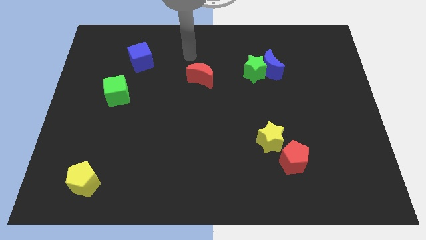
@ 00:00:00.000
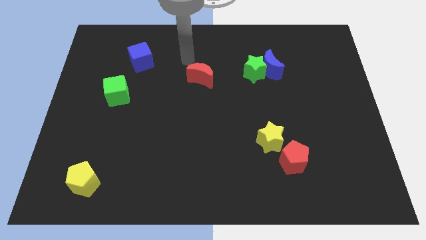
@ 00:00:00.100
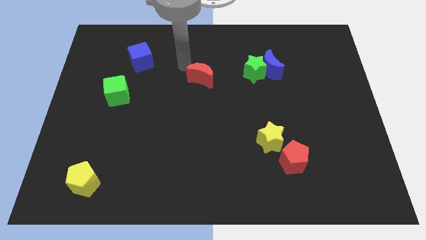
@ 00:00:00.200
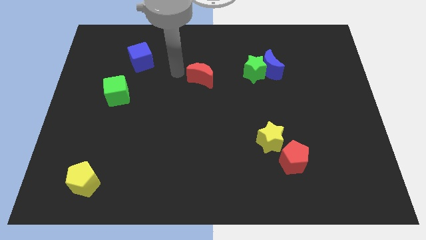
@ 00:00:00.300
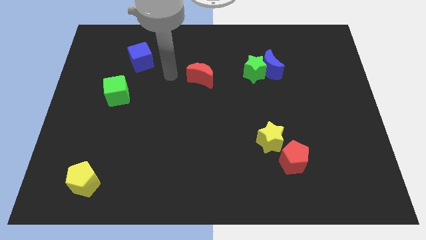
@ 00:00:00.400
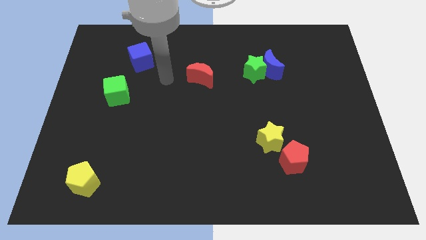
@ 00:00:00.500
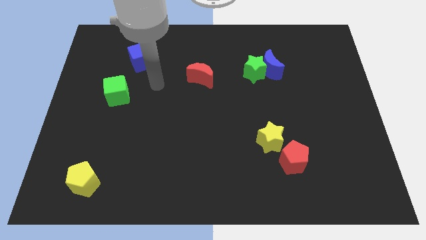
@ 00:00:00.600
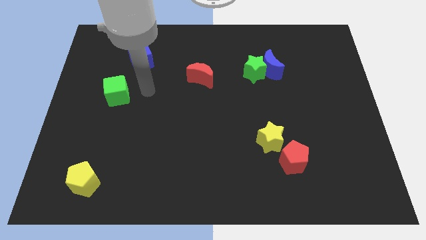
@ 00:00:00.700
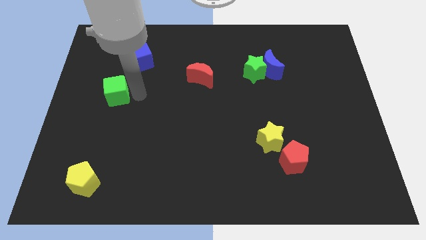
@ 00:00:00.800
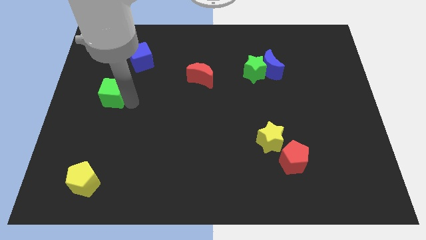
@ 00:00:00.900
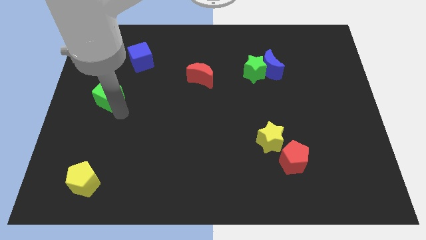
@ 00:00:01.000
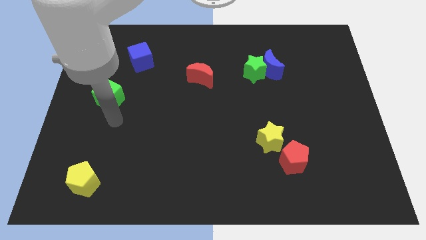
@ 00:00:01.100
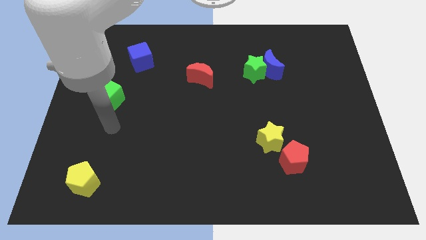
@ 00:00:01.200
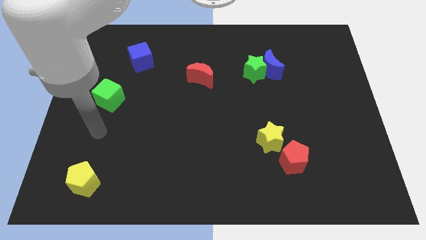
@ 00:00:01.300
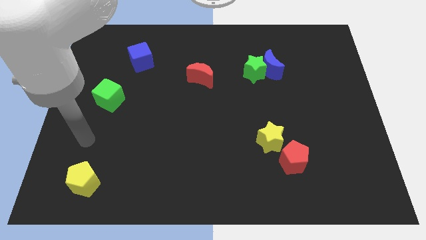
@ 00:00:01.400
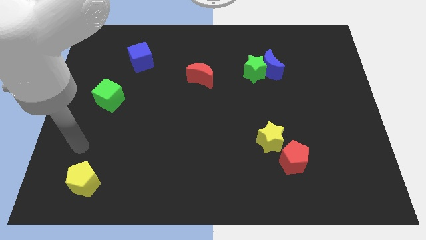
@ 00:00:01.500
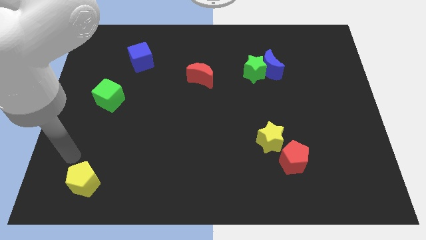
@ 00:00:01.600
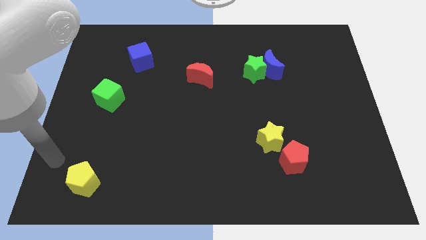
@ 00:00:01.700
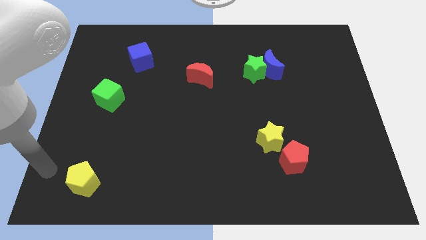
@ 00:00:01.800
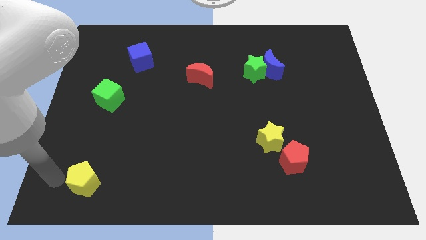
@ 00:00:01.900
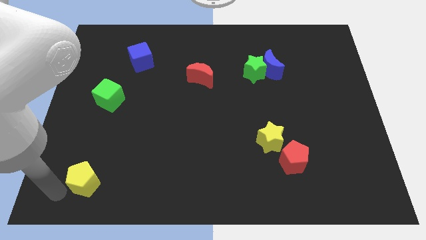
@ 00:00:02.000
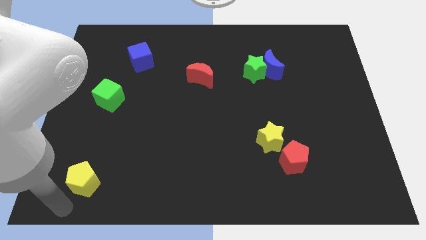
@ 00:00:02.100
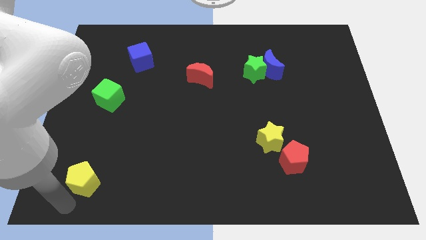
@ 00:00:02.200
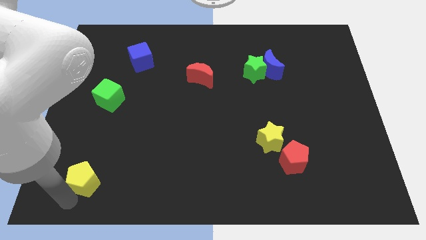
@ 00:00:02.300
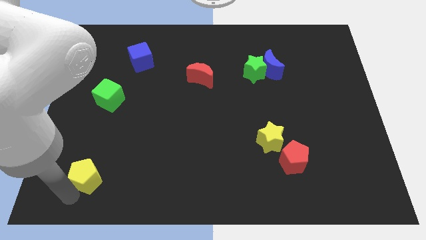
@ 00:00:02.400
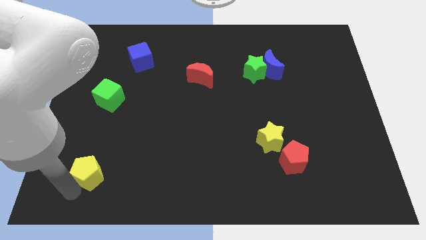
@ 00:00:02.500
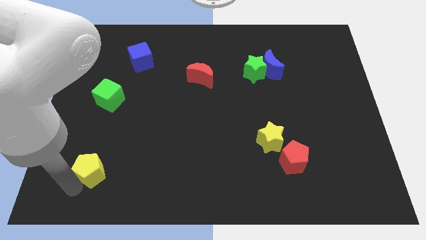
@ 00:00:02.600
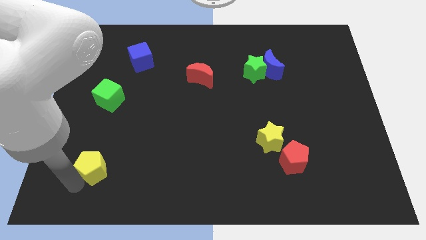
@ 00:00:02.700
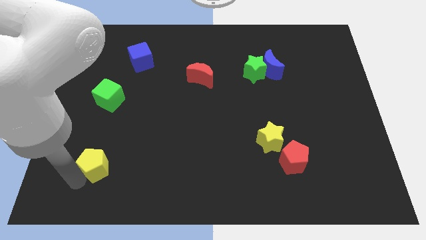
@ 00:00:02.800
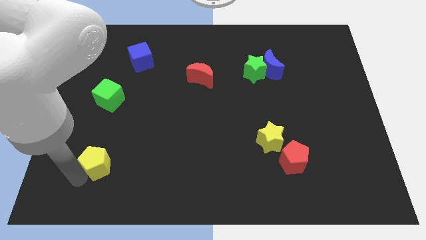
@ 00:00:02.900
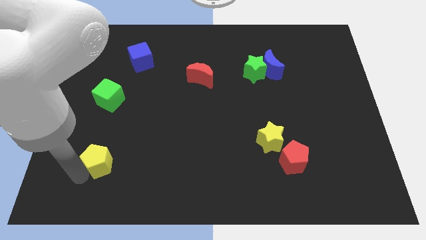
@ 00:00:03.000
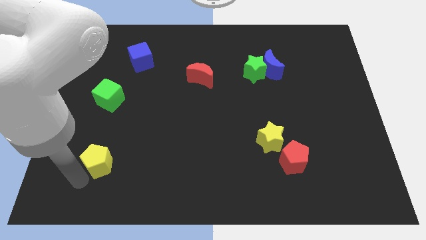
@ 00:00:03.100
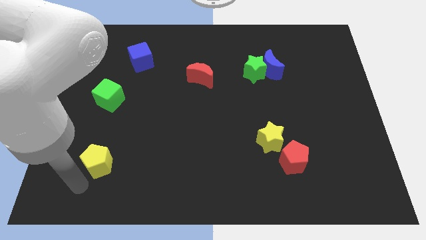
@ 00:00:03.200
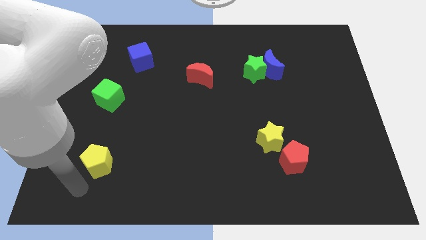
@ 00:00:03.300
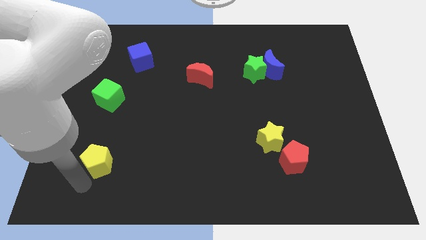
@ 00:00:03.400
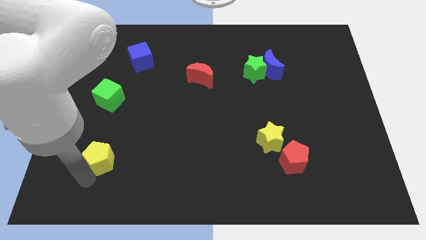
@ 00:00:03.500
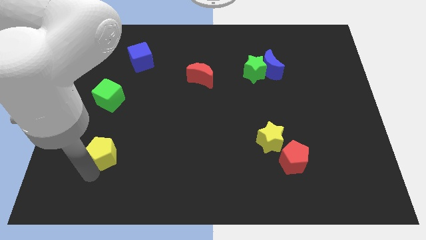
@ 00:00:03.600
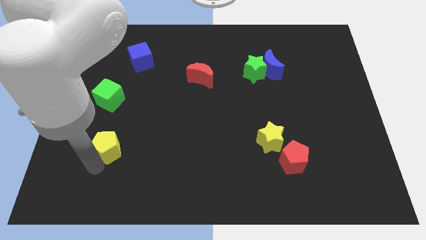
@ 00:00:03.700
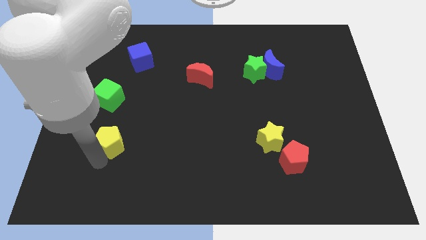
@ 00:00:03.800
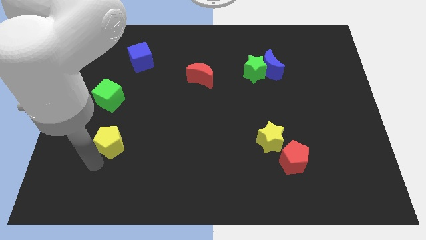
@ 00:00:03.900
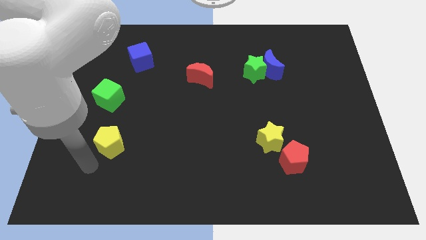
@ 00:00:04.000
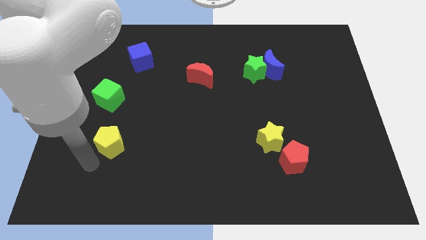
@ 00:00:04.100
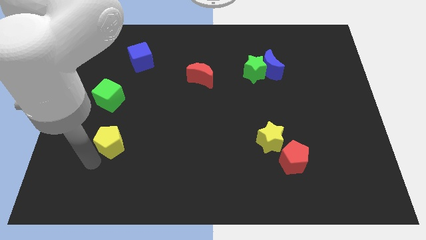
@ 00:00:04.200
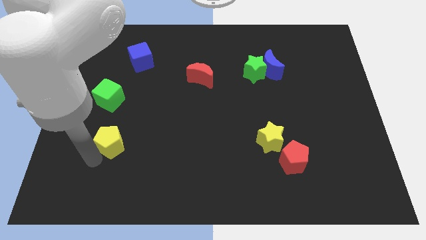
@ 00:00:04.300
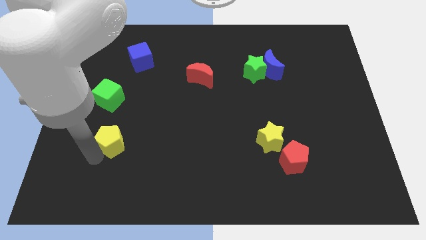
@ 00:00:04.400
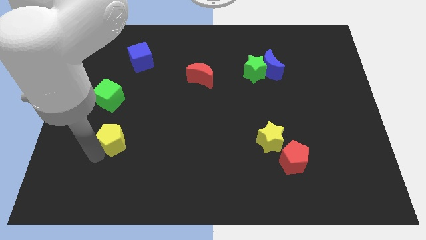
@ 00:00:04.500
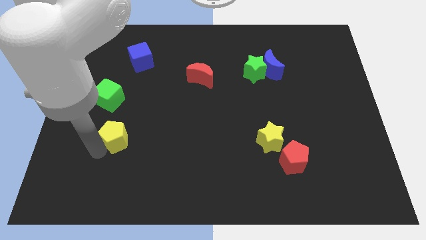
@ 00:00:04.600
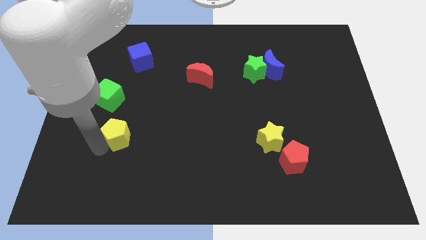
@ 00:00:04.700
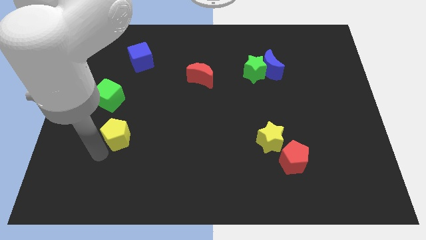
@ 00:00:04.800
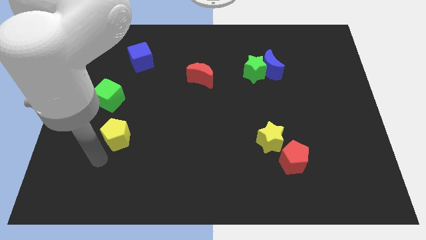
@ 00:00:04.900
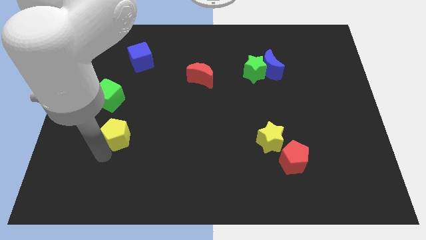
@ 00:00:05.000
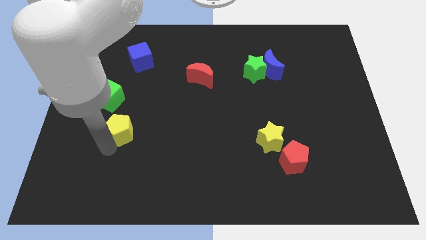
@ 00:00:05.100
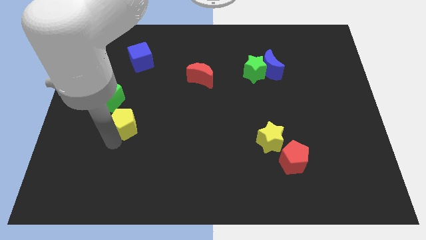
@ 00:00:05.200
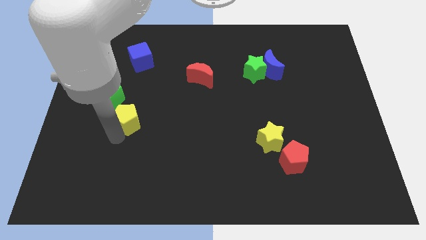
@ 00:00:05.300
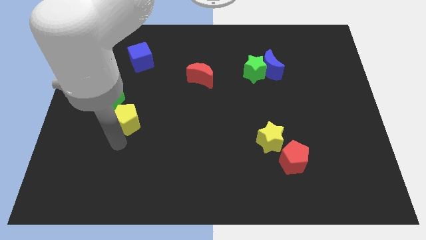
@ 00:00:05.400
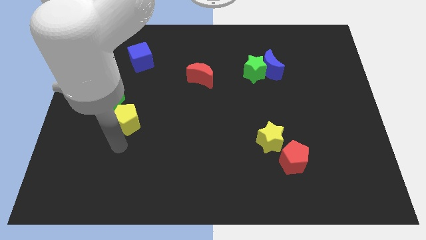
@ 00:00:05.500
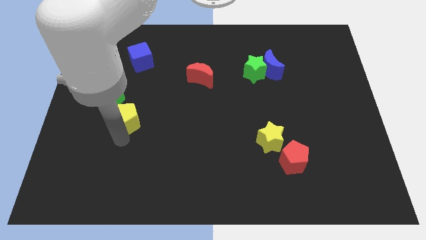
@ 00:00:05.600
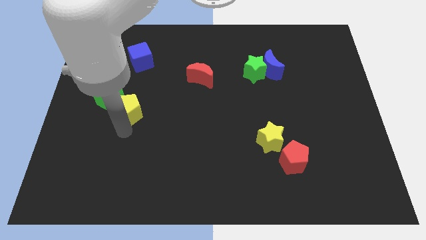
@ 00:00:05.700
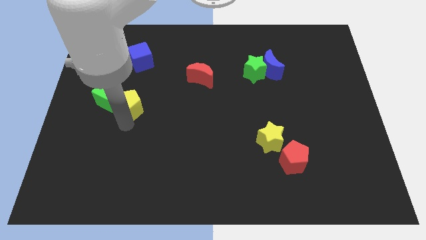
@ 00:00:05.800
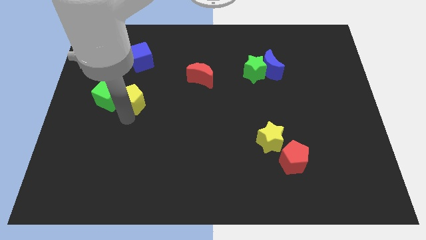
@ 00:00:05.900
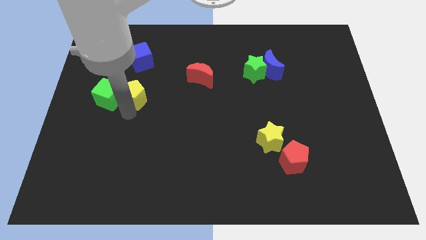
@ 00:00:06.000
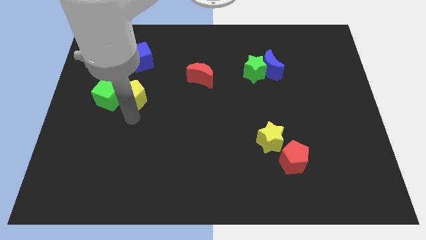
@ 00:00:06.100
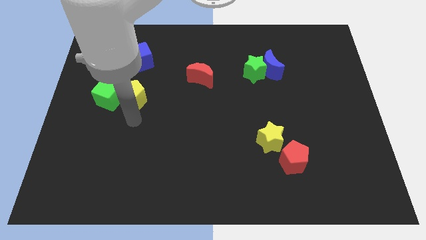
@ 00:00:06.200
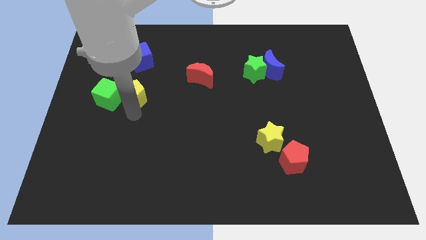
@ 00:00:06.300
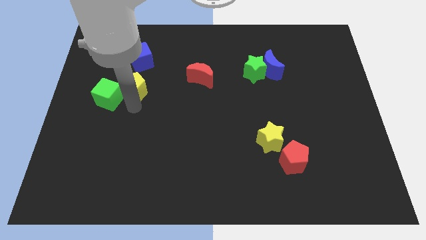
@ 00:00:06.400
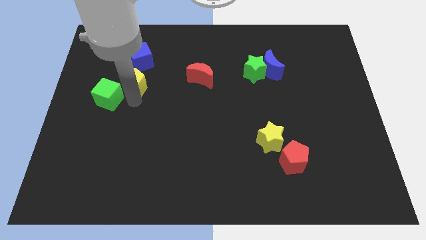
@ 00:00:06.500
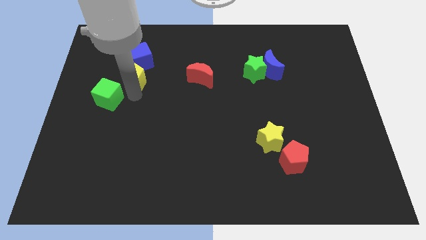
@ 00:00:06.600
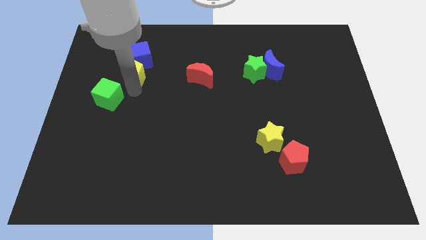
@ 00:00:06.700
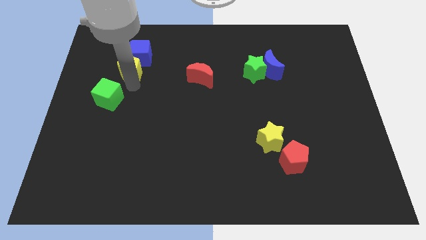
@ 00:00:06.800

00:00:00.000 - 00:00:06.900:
put the yellow pentagon towards the blue cube

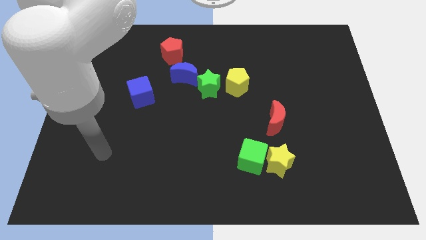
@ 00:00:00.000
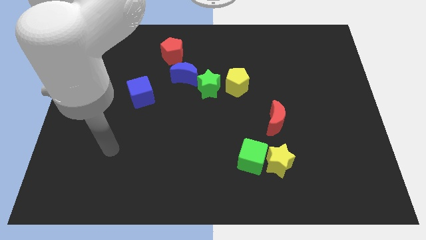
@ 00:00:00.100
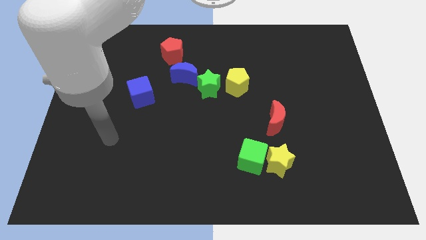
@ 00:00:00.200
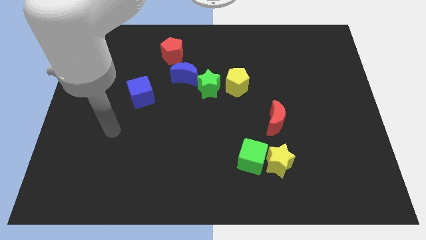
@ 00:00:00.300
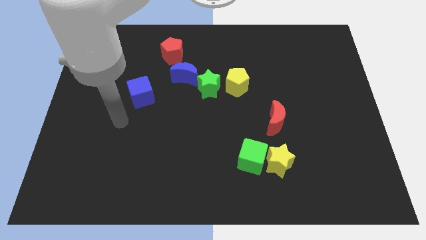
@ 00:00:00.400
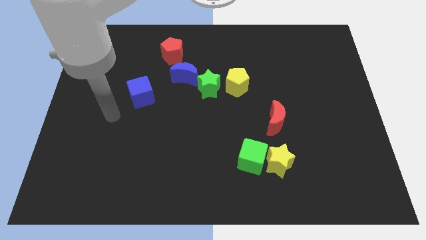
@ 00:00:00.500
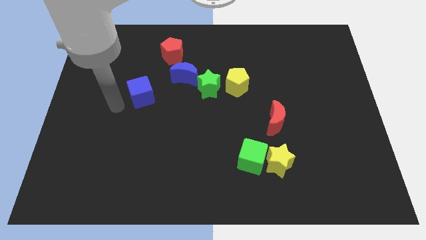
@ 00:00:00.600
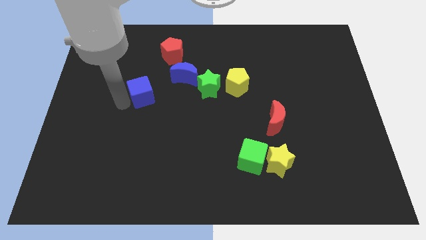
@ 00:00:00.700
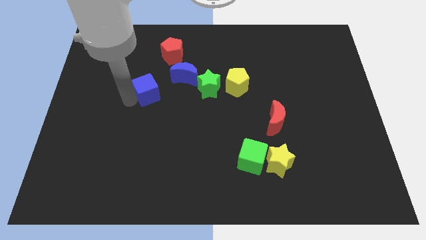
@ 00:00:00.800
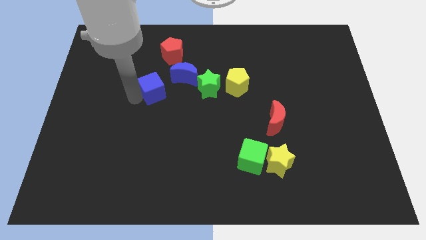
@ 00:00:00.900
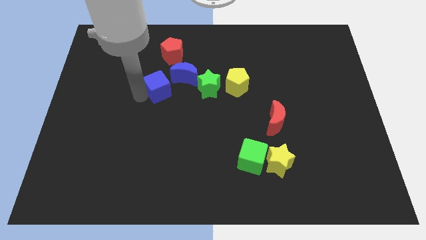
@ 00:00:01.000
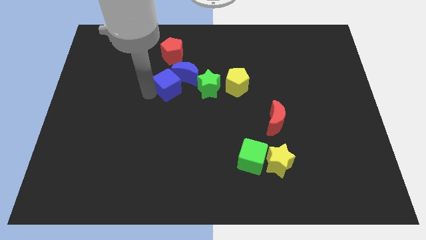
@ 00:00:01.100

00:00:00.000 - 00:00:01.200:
slide the blue cube to the blue moon
